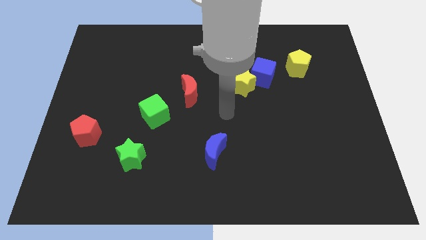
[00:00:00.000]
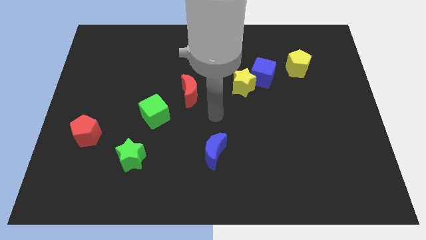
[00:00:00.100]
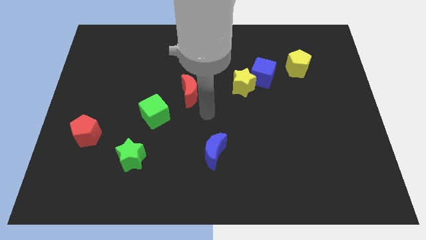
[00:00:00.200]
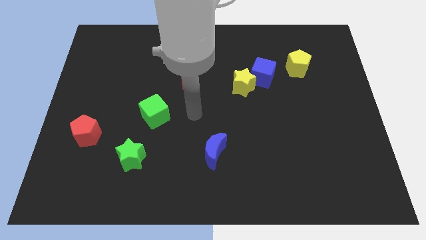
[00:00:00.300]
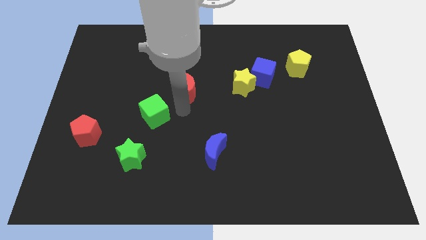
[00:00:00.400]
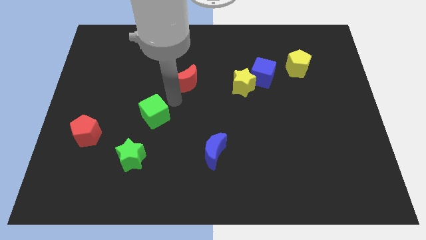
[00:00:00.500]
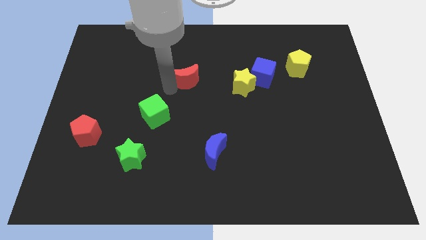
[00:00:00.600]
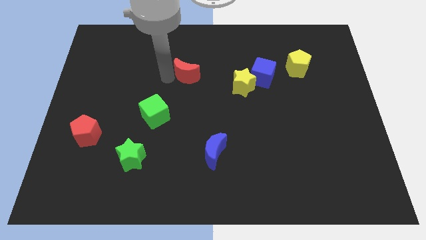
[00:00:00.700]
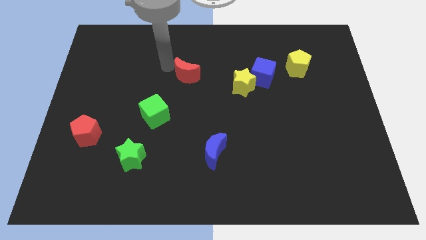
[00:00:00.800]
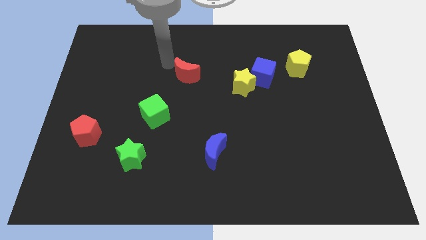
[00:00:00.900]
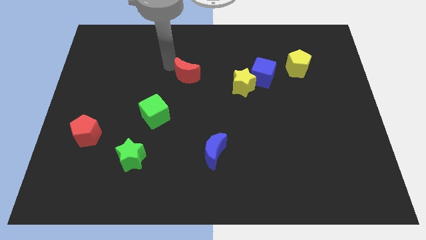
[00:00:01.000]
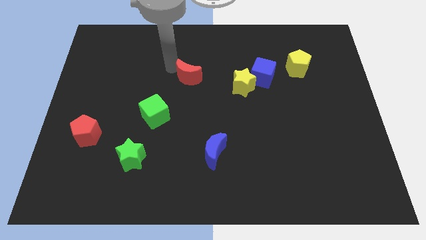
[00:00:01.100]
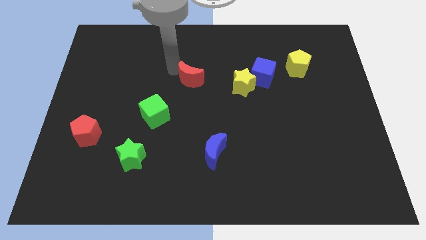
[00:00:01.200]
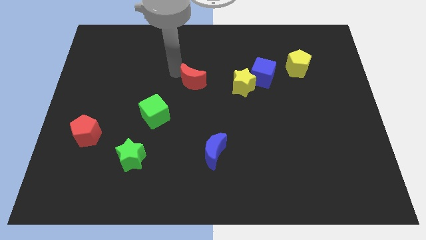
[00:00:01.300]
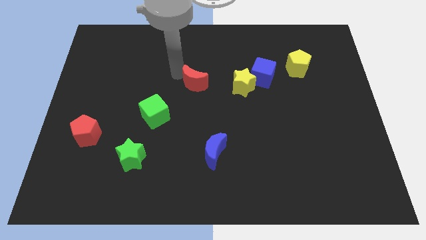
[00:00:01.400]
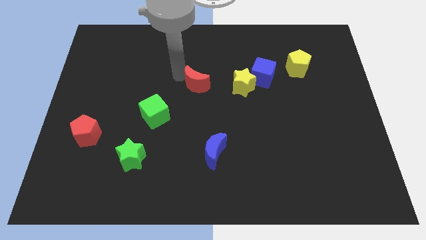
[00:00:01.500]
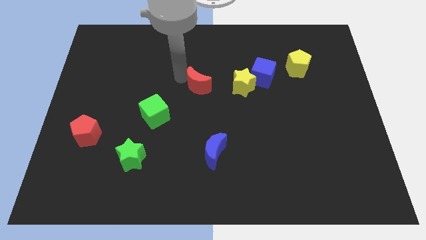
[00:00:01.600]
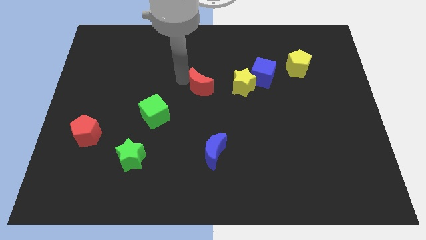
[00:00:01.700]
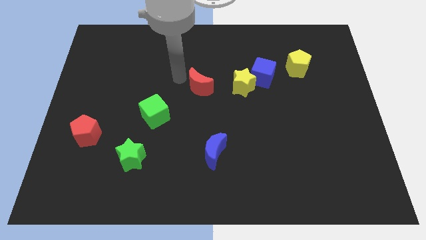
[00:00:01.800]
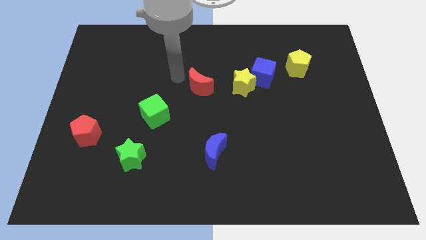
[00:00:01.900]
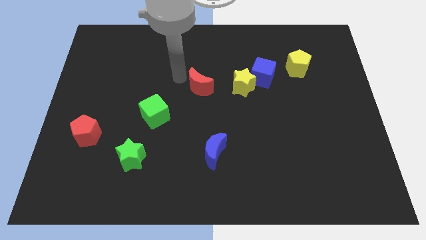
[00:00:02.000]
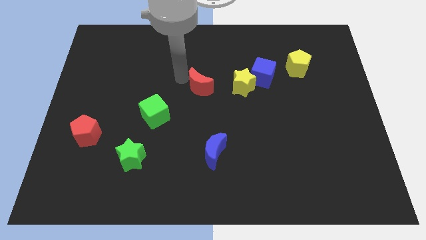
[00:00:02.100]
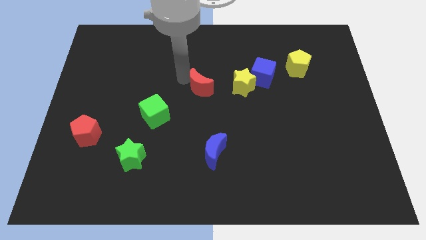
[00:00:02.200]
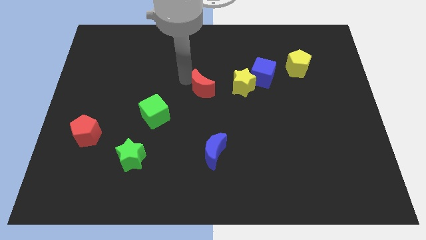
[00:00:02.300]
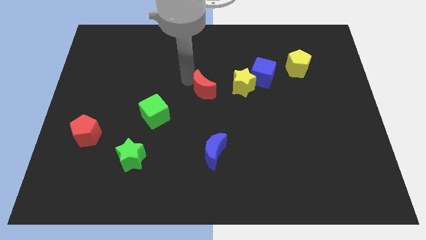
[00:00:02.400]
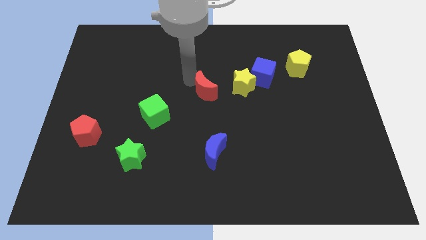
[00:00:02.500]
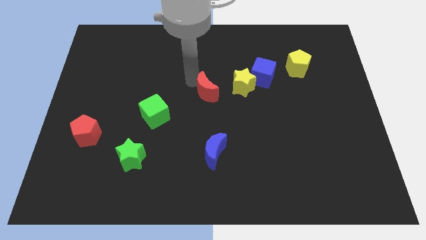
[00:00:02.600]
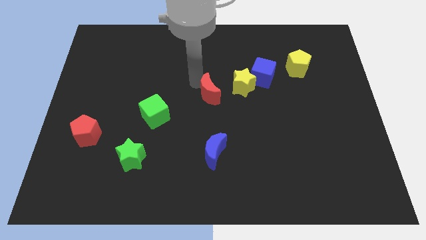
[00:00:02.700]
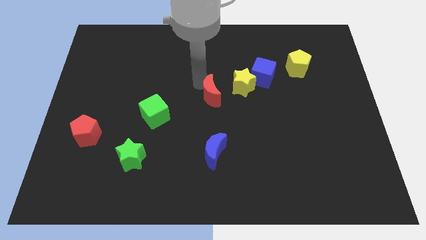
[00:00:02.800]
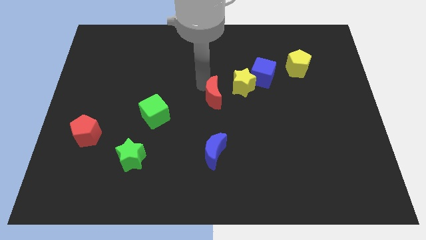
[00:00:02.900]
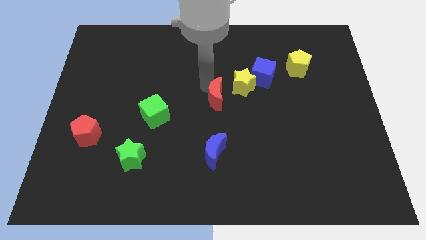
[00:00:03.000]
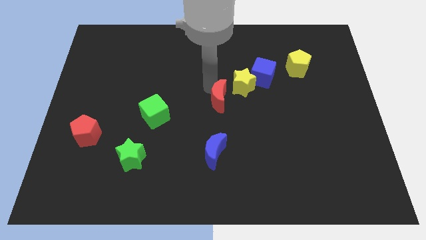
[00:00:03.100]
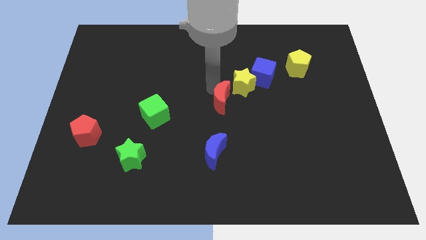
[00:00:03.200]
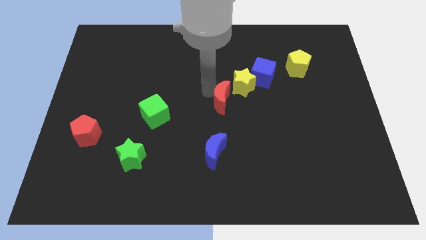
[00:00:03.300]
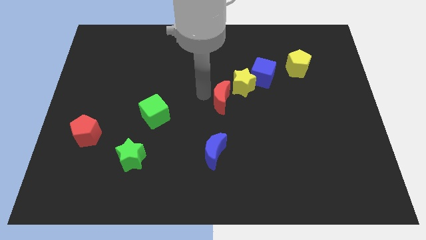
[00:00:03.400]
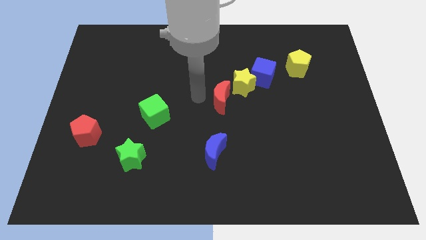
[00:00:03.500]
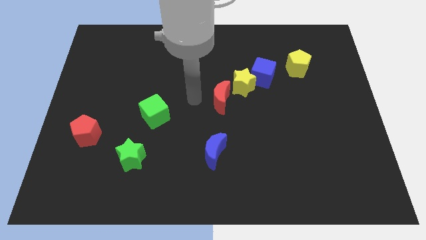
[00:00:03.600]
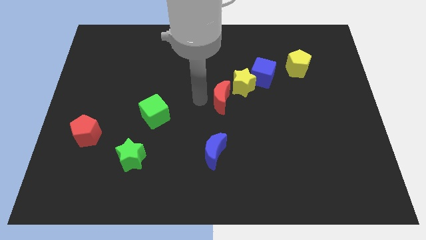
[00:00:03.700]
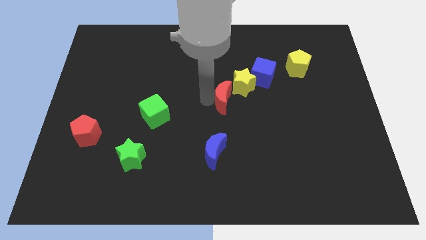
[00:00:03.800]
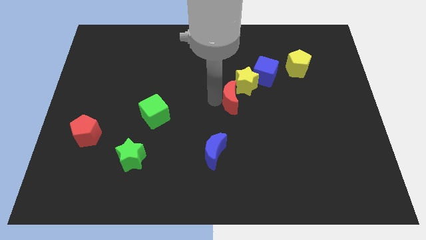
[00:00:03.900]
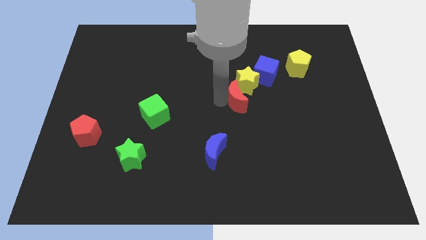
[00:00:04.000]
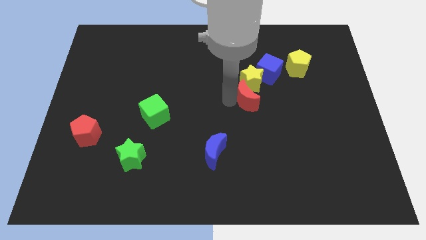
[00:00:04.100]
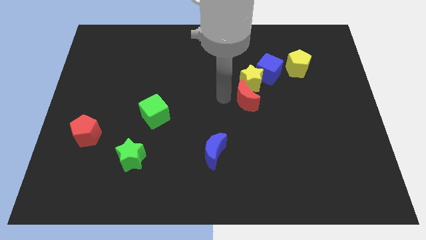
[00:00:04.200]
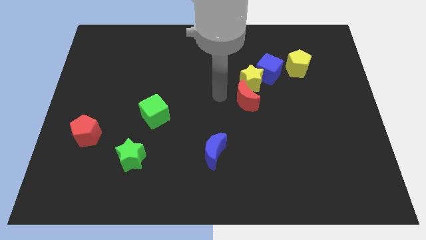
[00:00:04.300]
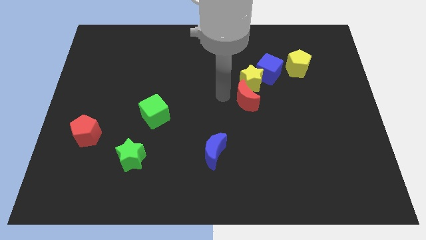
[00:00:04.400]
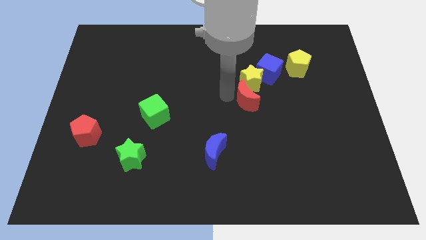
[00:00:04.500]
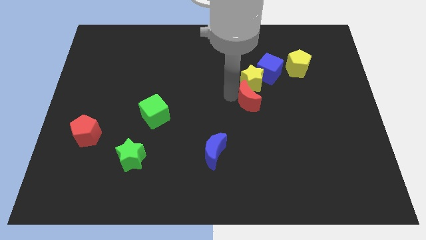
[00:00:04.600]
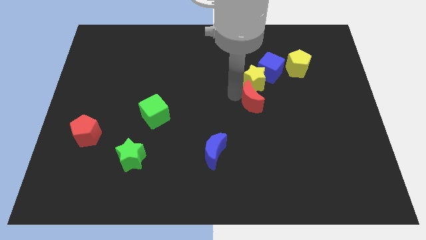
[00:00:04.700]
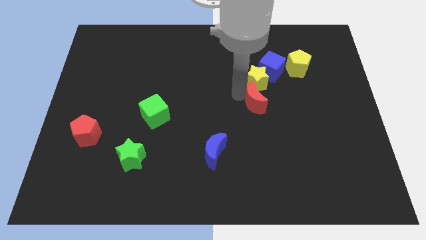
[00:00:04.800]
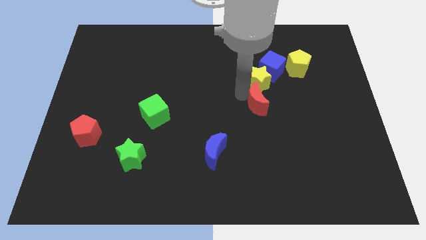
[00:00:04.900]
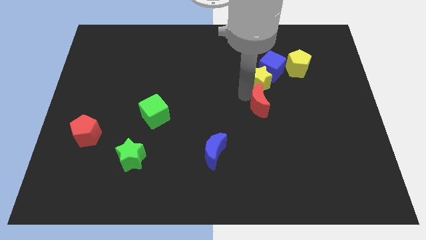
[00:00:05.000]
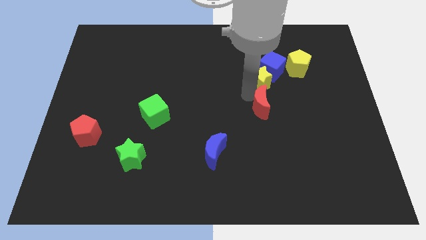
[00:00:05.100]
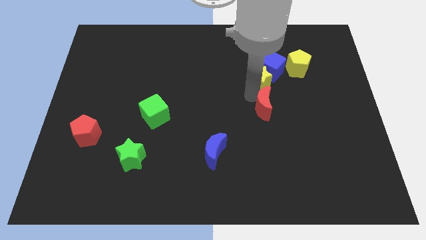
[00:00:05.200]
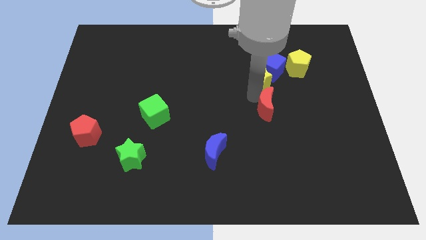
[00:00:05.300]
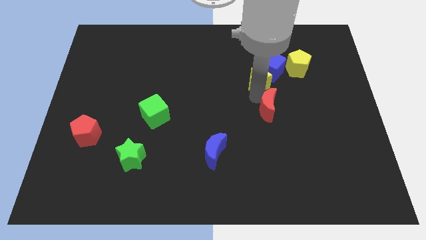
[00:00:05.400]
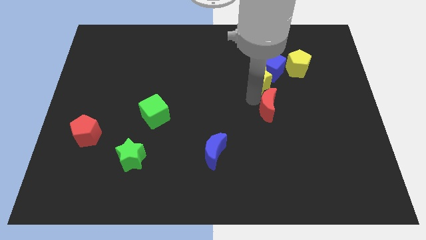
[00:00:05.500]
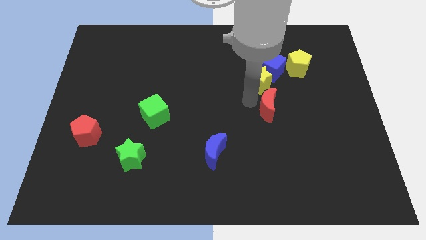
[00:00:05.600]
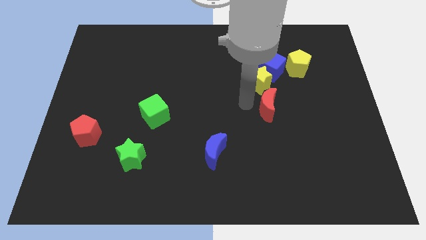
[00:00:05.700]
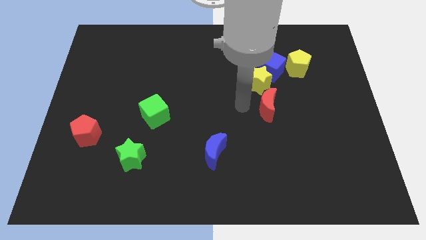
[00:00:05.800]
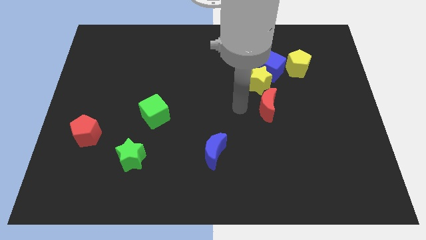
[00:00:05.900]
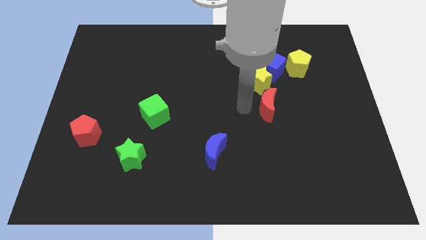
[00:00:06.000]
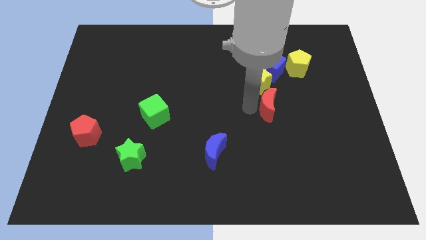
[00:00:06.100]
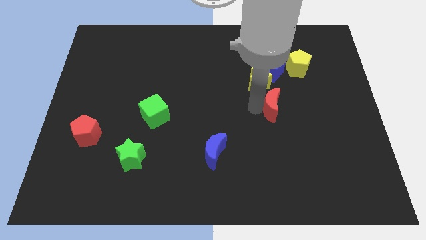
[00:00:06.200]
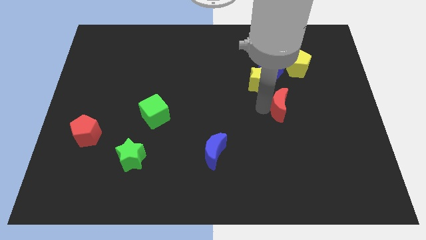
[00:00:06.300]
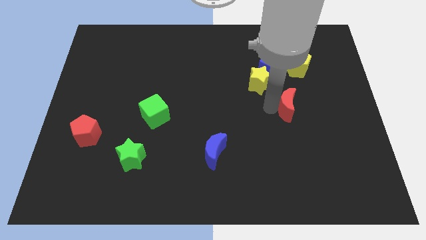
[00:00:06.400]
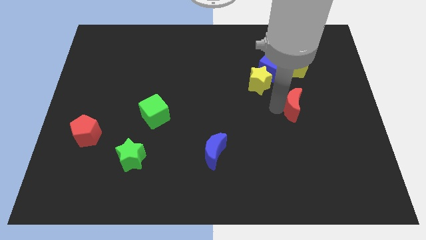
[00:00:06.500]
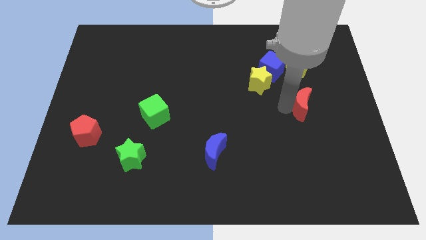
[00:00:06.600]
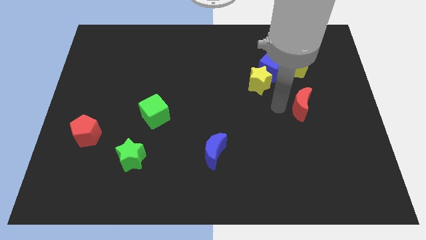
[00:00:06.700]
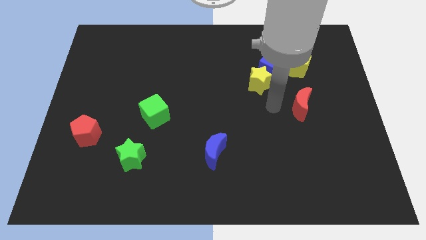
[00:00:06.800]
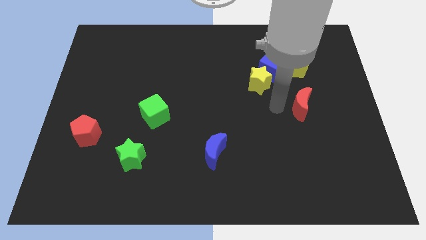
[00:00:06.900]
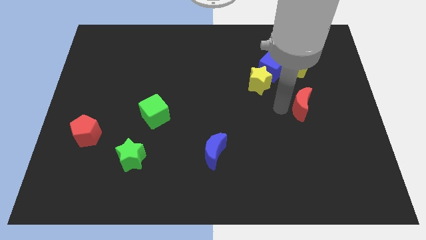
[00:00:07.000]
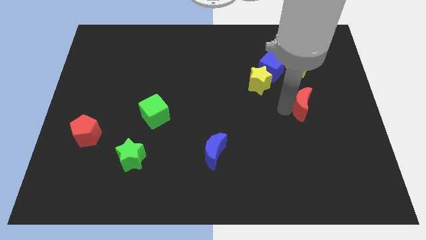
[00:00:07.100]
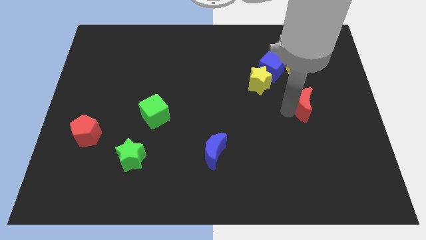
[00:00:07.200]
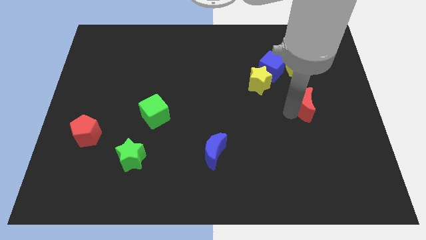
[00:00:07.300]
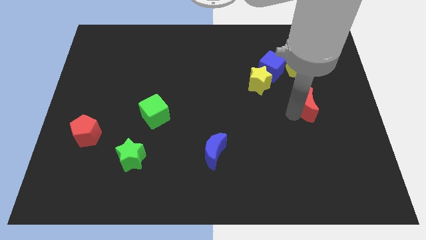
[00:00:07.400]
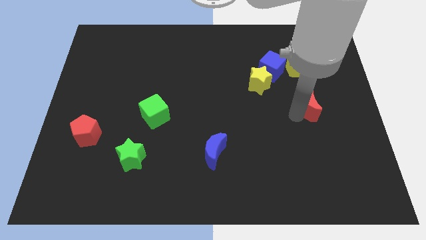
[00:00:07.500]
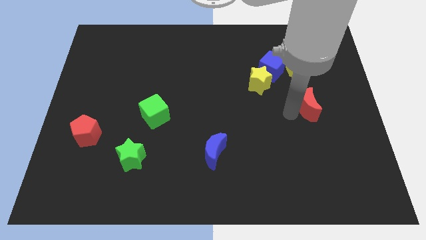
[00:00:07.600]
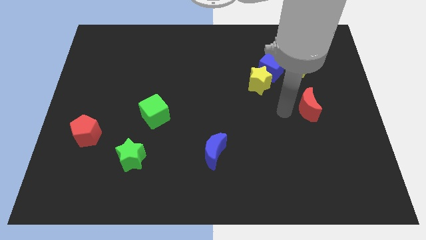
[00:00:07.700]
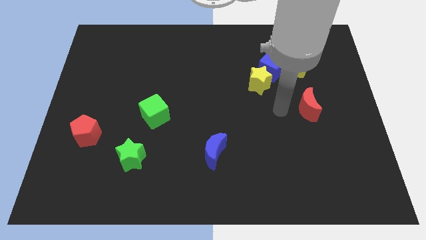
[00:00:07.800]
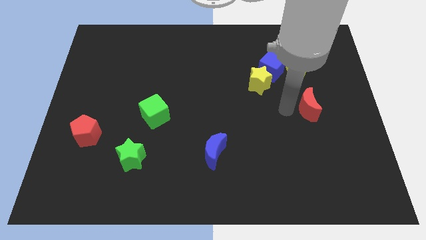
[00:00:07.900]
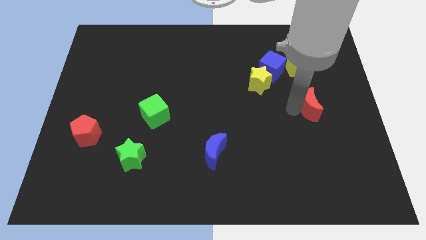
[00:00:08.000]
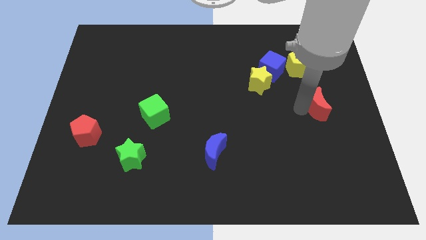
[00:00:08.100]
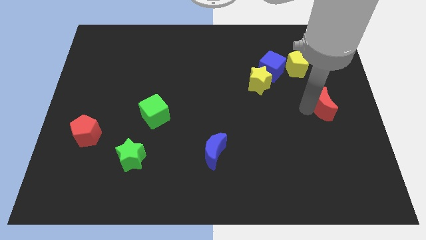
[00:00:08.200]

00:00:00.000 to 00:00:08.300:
put the red moon to the center right
